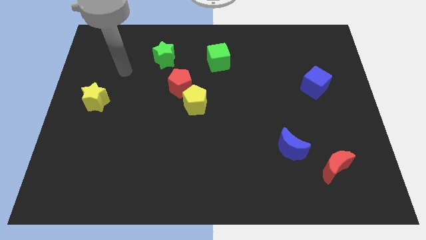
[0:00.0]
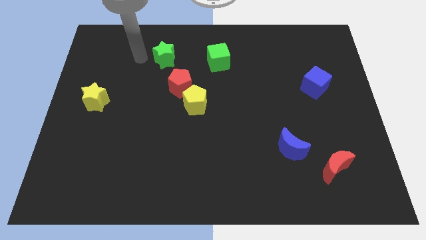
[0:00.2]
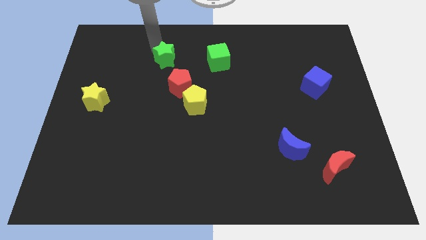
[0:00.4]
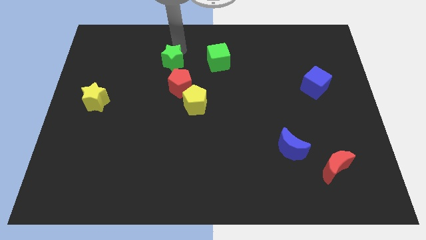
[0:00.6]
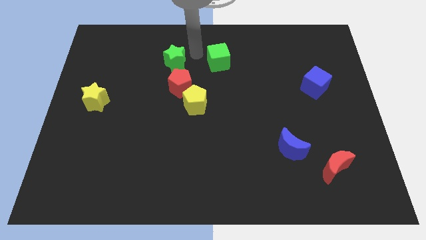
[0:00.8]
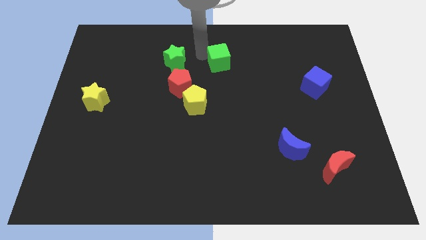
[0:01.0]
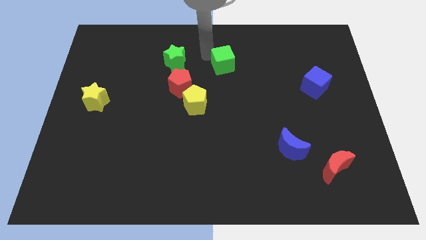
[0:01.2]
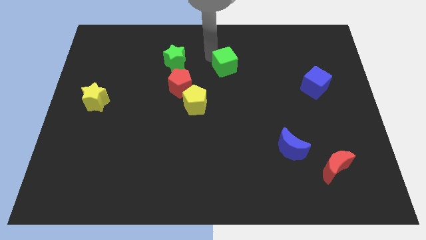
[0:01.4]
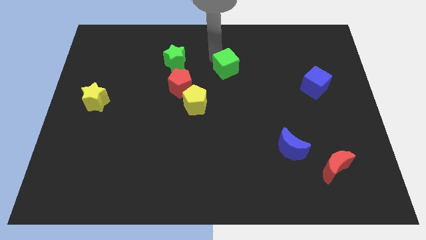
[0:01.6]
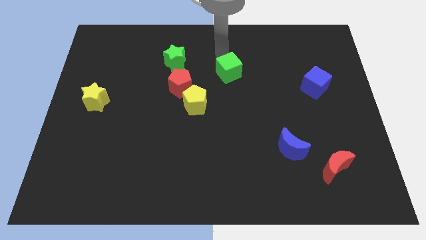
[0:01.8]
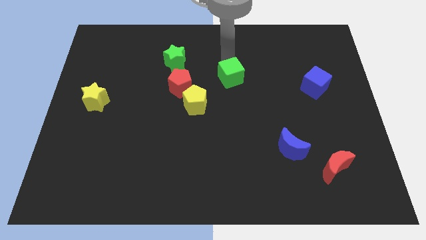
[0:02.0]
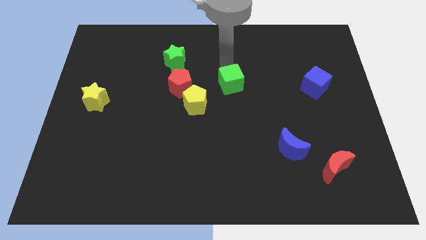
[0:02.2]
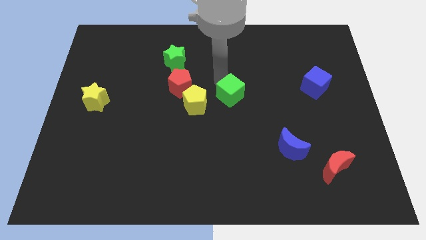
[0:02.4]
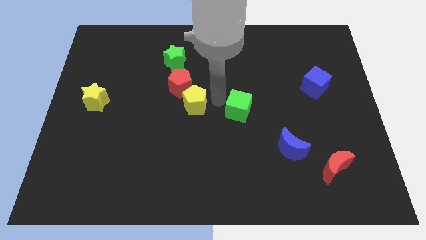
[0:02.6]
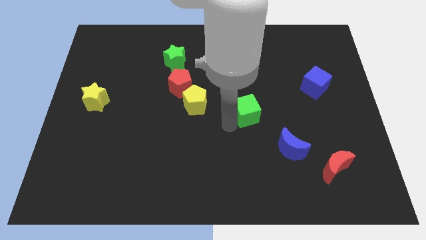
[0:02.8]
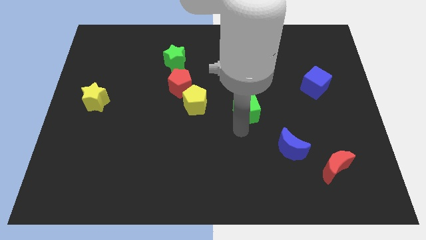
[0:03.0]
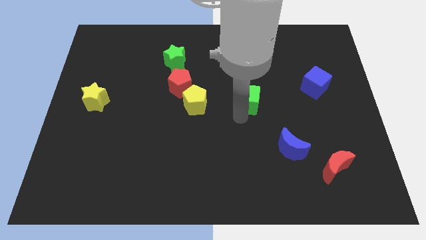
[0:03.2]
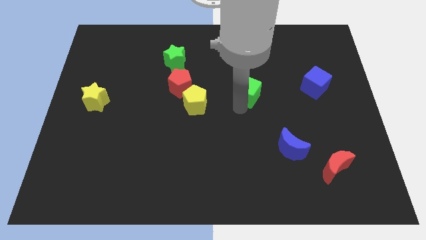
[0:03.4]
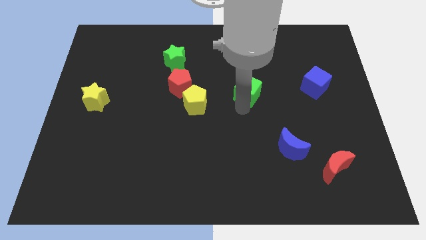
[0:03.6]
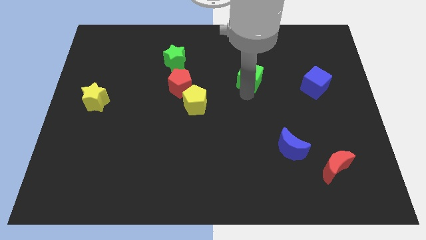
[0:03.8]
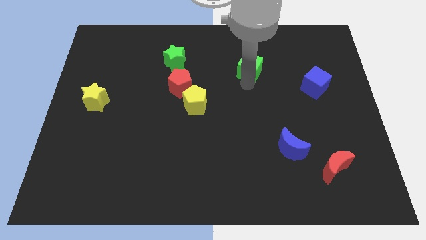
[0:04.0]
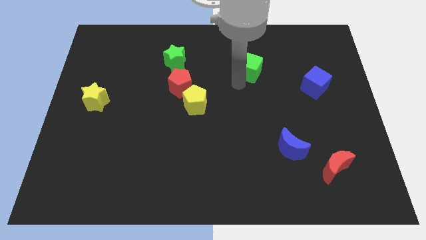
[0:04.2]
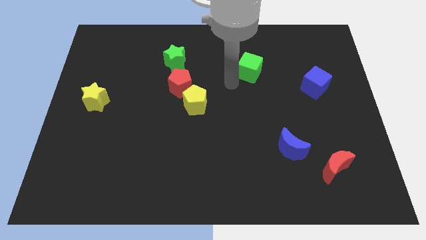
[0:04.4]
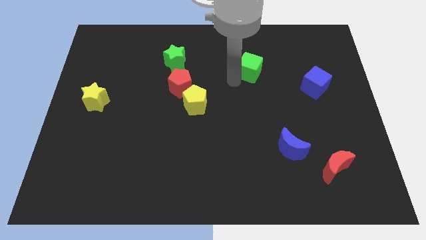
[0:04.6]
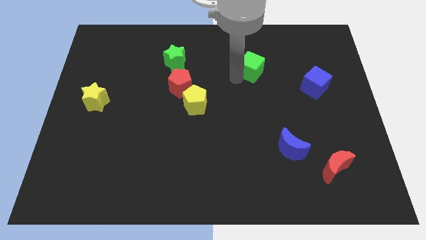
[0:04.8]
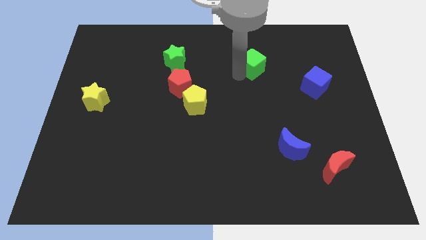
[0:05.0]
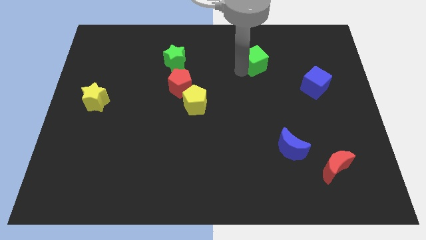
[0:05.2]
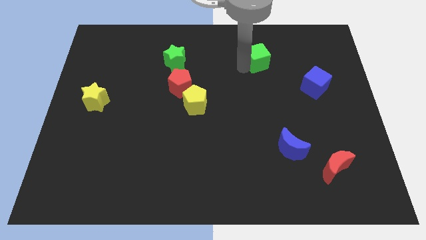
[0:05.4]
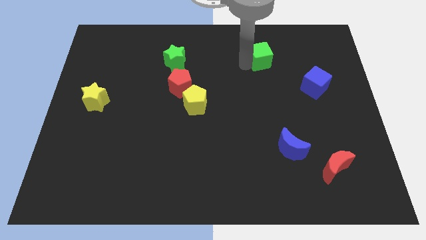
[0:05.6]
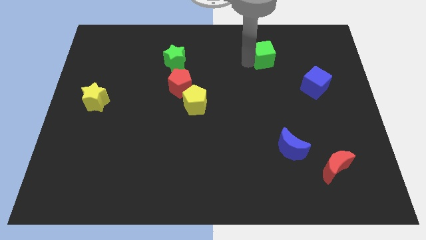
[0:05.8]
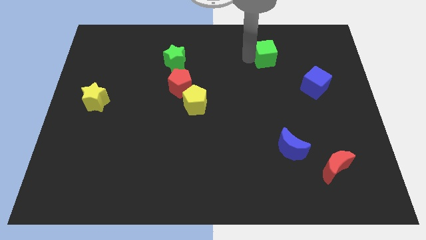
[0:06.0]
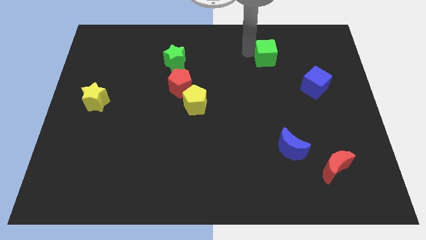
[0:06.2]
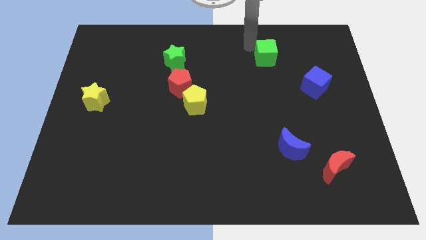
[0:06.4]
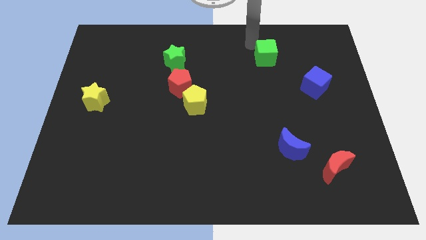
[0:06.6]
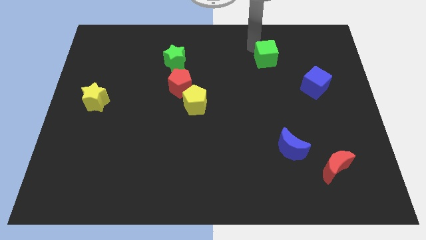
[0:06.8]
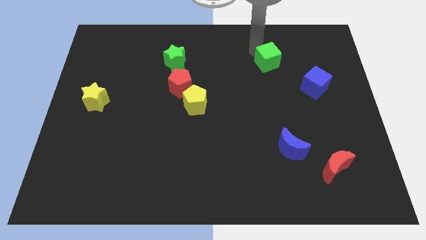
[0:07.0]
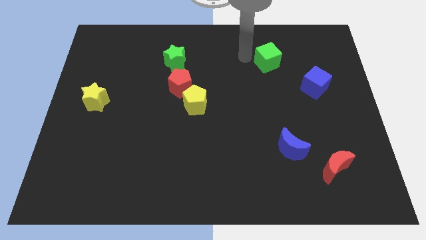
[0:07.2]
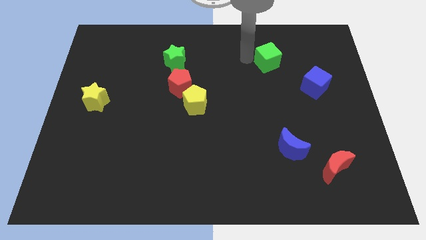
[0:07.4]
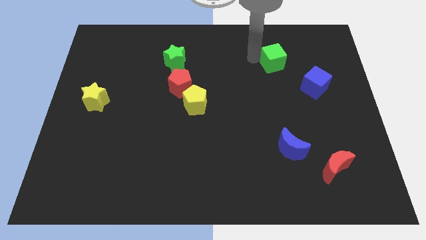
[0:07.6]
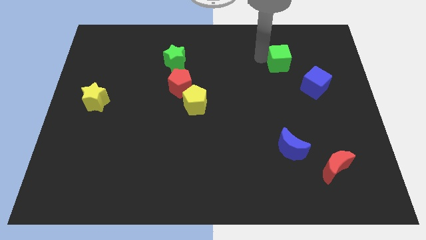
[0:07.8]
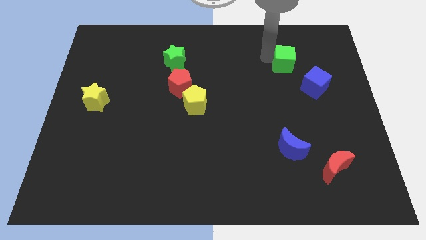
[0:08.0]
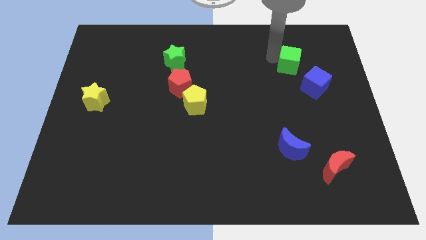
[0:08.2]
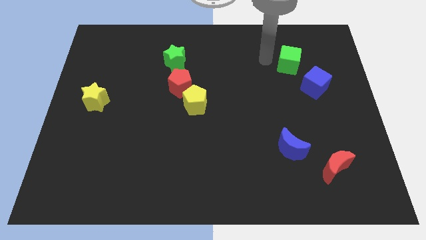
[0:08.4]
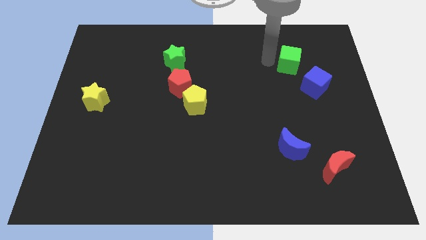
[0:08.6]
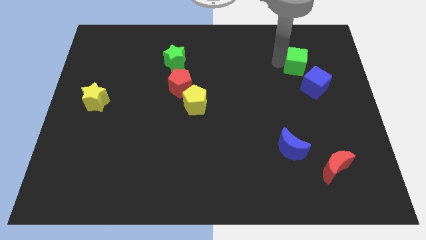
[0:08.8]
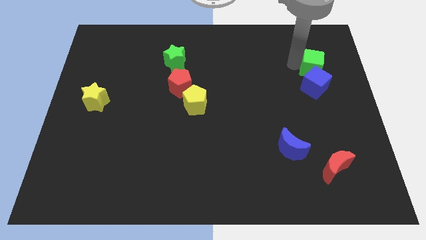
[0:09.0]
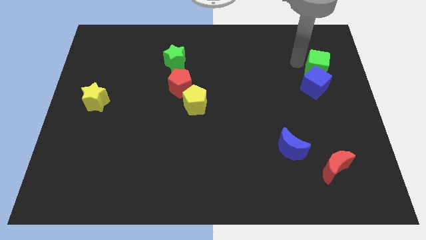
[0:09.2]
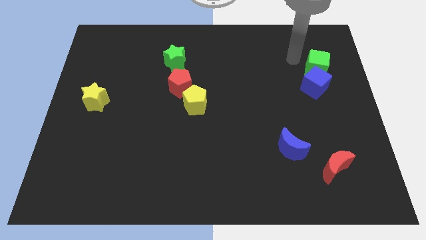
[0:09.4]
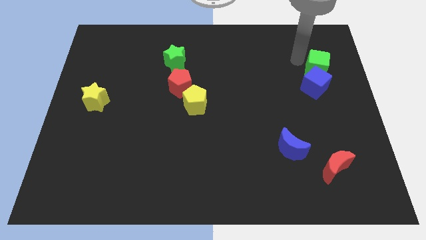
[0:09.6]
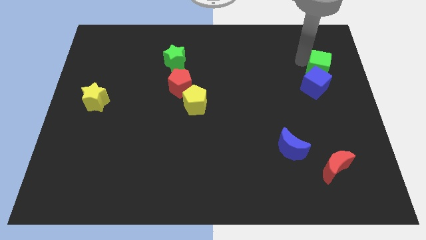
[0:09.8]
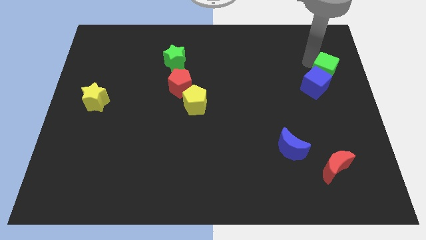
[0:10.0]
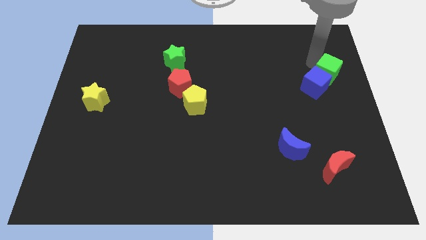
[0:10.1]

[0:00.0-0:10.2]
put the green cube to the right side

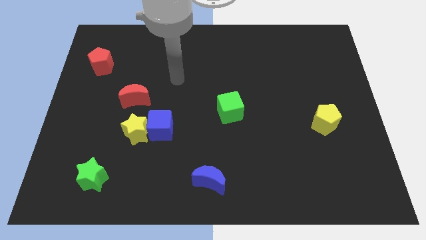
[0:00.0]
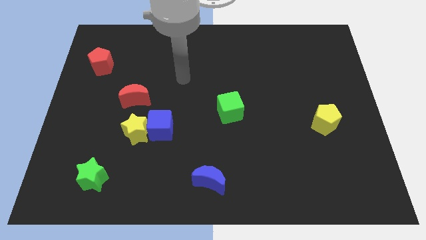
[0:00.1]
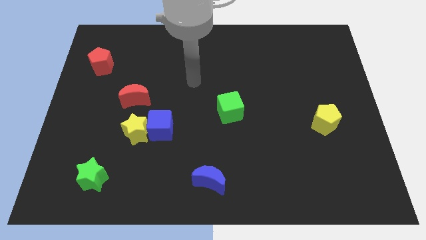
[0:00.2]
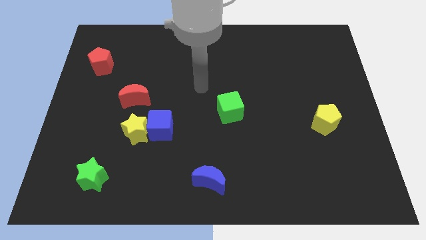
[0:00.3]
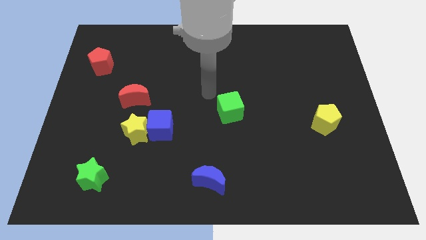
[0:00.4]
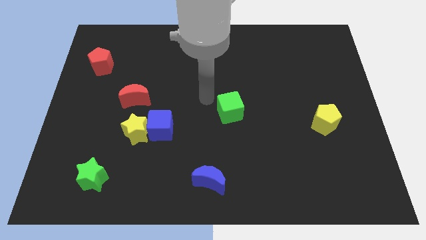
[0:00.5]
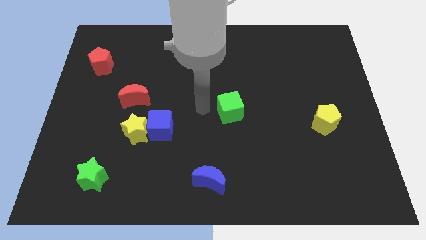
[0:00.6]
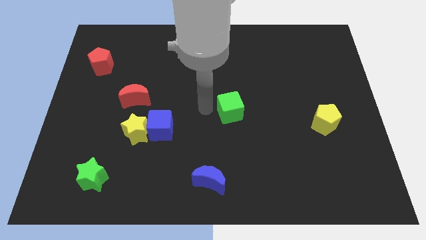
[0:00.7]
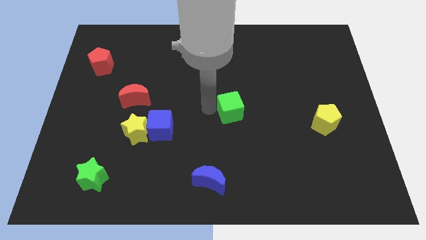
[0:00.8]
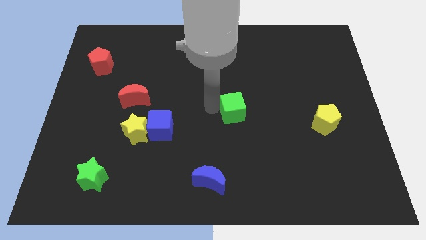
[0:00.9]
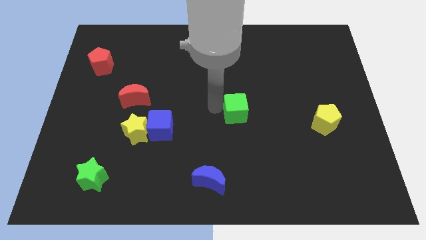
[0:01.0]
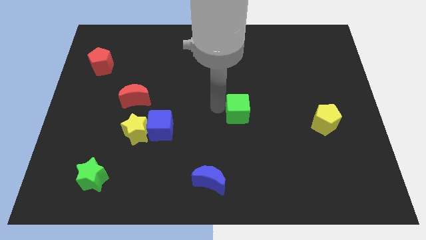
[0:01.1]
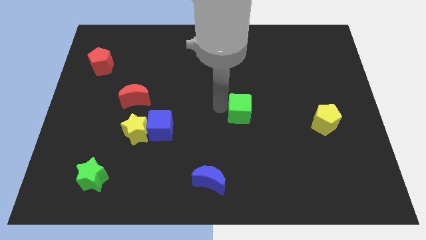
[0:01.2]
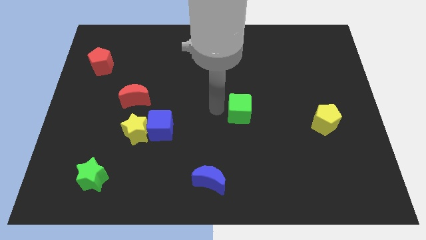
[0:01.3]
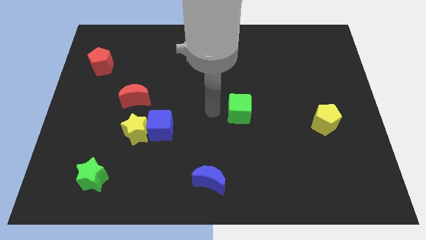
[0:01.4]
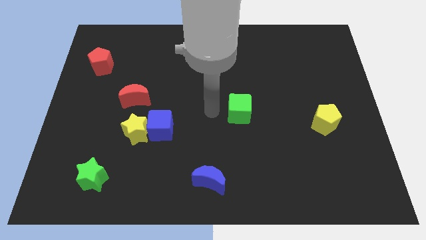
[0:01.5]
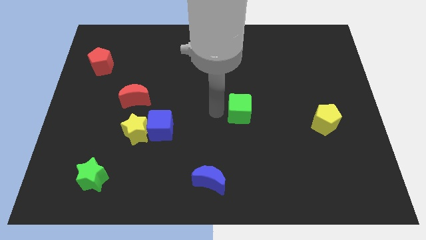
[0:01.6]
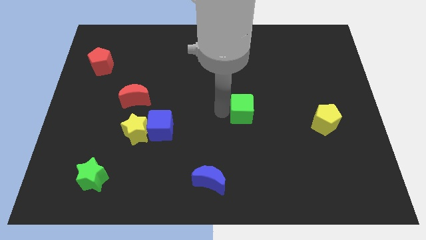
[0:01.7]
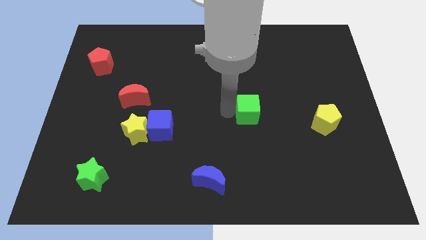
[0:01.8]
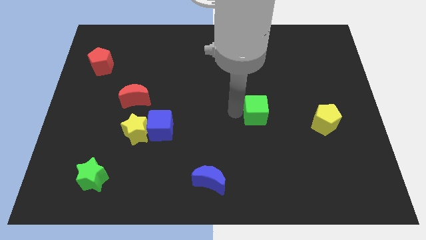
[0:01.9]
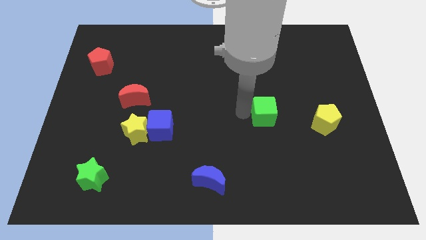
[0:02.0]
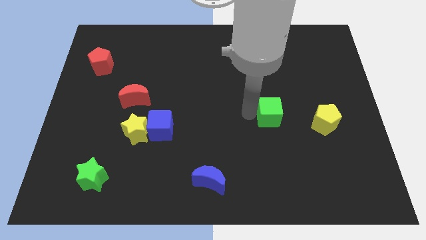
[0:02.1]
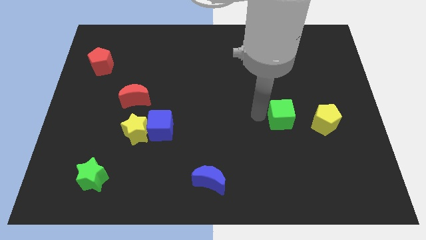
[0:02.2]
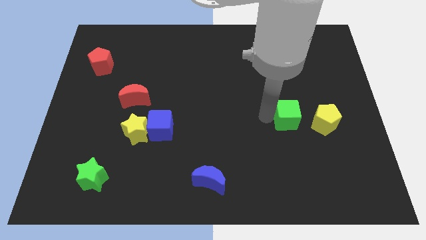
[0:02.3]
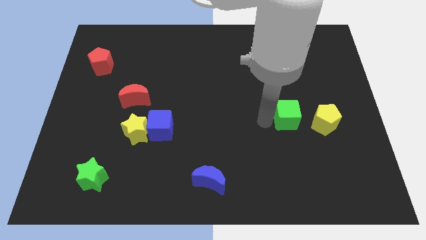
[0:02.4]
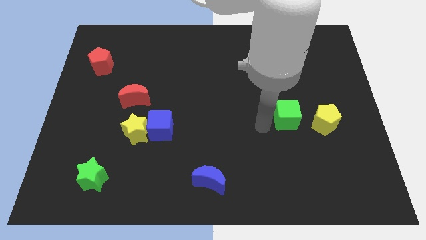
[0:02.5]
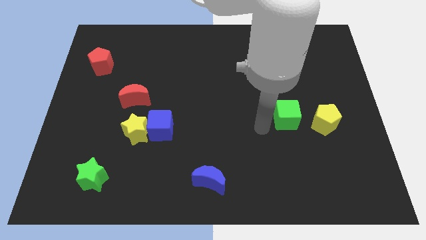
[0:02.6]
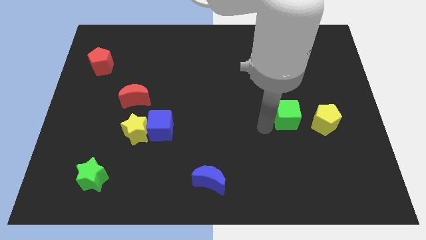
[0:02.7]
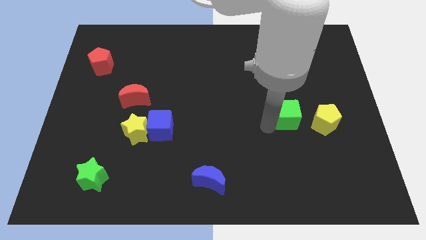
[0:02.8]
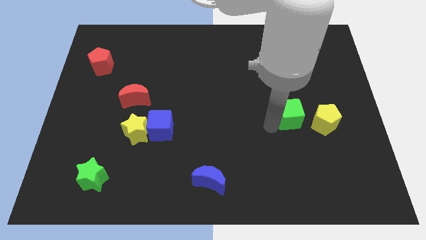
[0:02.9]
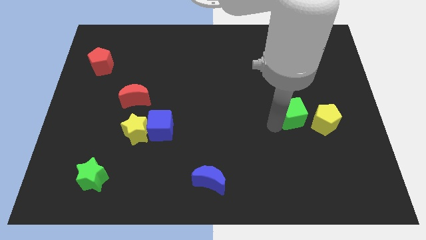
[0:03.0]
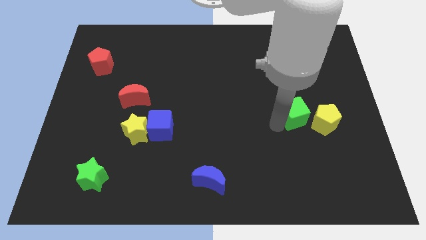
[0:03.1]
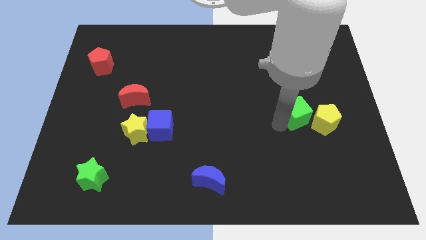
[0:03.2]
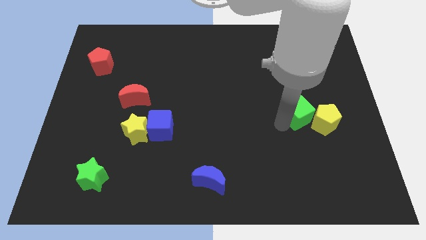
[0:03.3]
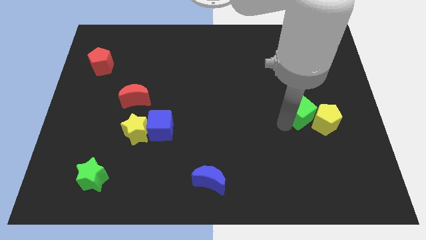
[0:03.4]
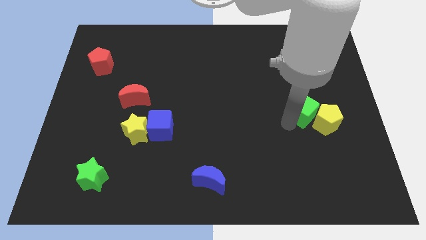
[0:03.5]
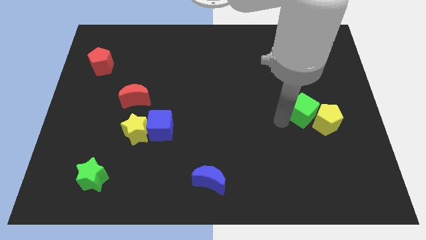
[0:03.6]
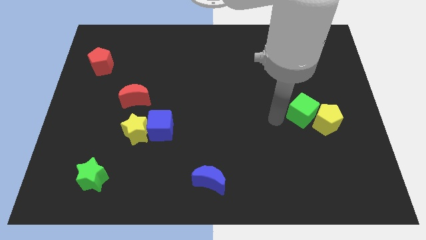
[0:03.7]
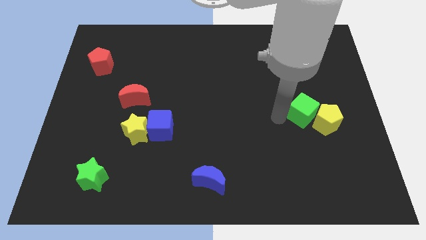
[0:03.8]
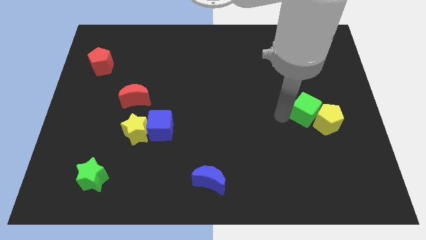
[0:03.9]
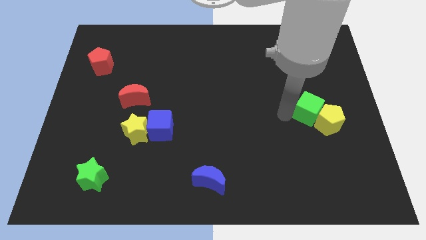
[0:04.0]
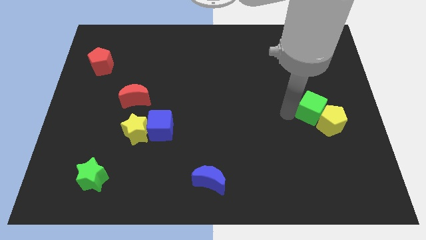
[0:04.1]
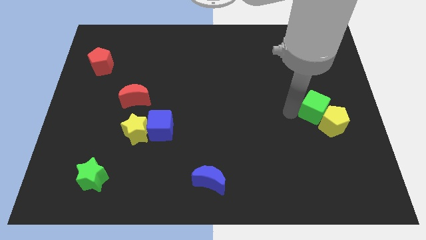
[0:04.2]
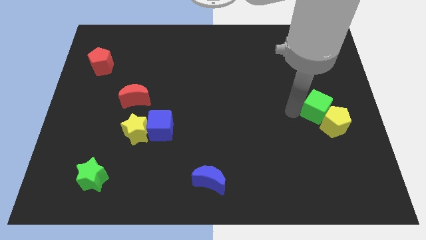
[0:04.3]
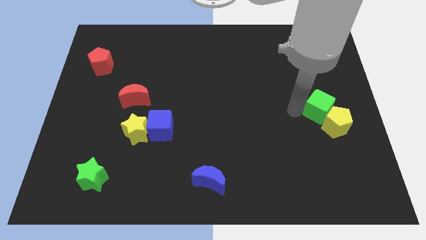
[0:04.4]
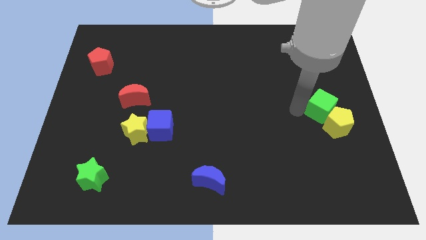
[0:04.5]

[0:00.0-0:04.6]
put the green cube to the right side of the board
